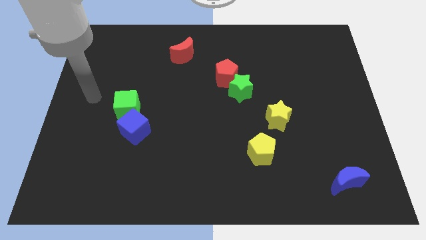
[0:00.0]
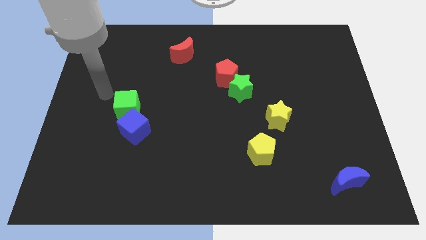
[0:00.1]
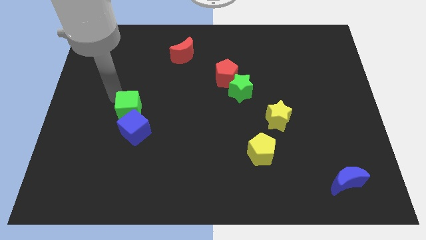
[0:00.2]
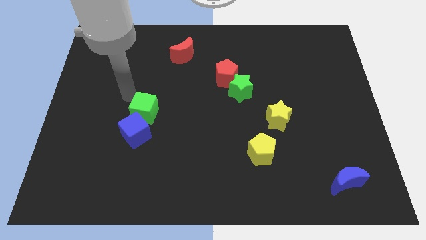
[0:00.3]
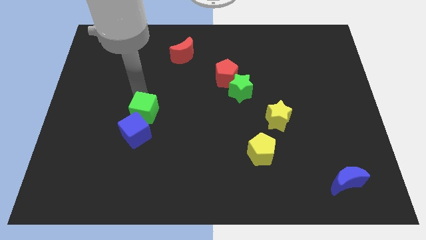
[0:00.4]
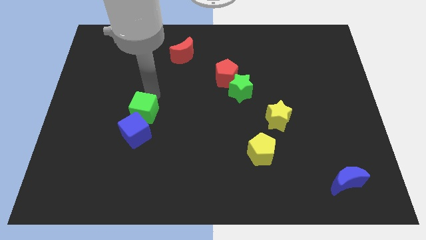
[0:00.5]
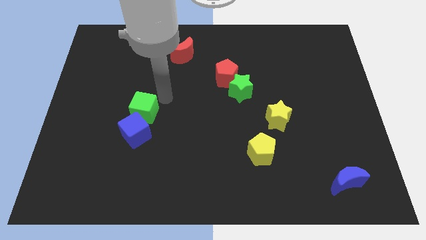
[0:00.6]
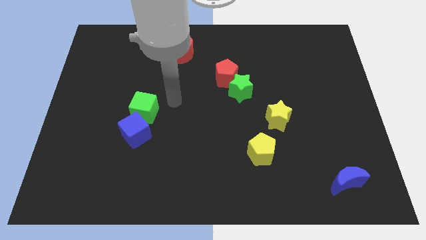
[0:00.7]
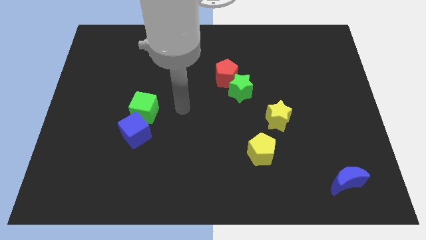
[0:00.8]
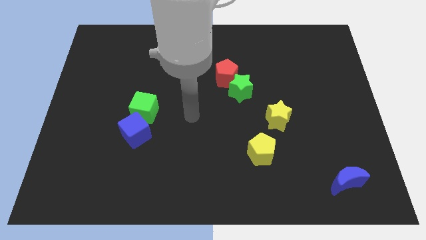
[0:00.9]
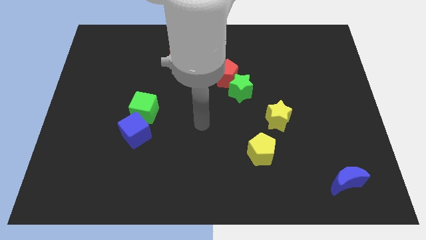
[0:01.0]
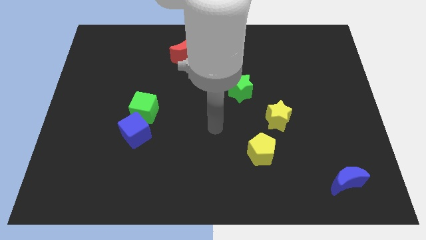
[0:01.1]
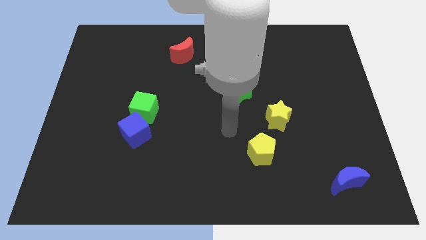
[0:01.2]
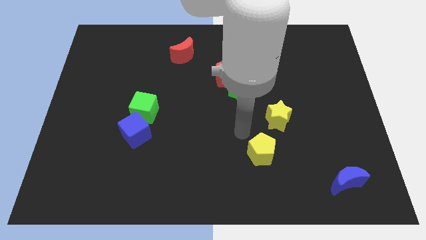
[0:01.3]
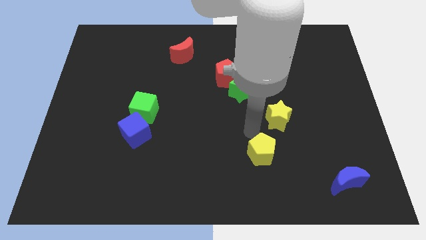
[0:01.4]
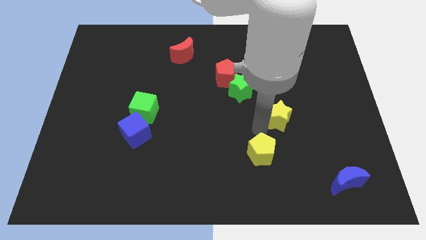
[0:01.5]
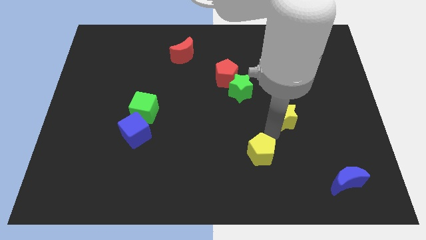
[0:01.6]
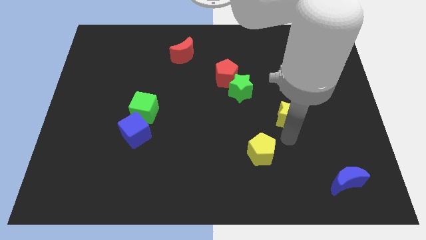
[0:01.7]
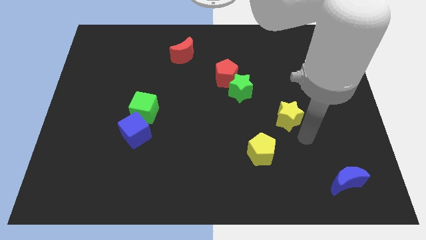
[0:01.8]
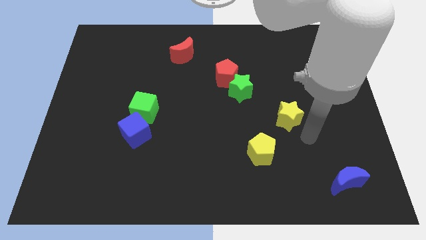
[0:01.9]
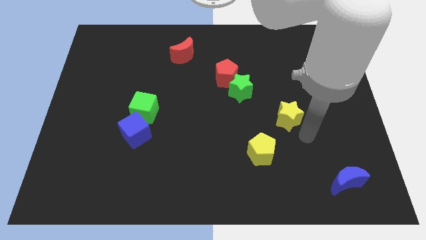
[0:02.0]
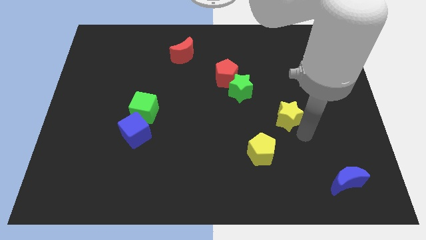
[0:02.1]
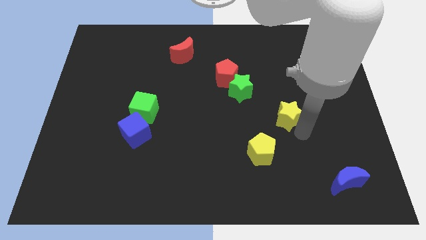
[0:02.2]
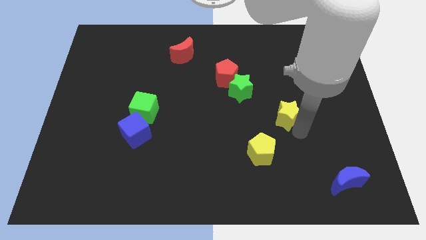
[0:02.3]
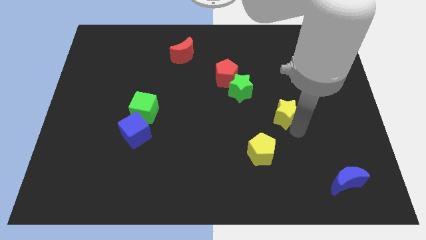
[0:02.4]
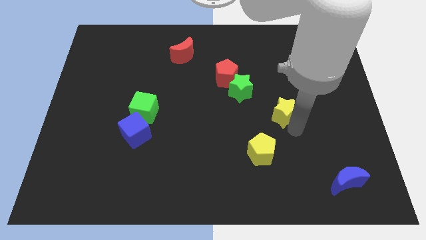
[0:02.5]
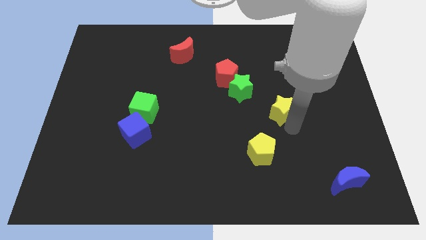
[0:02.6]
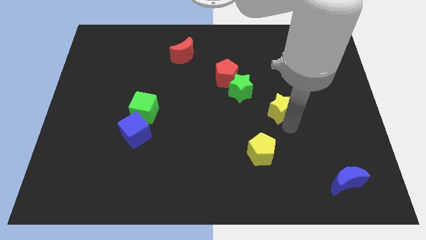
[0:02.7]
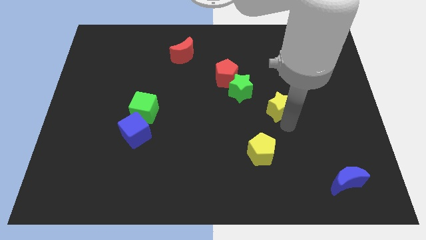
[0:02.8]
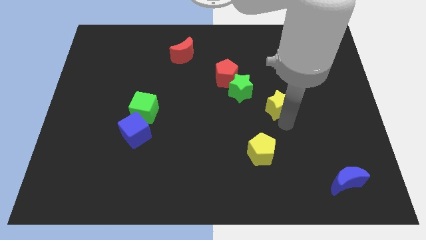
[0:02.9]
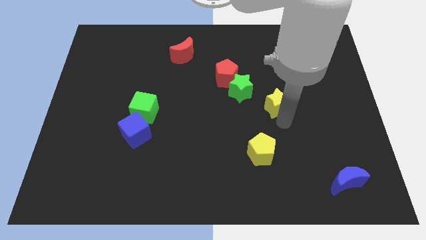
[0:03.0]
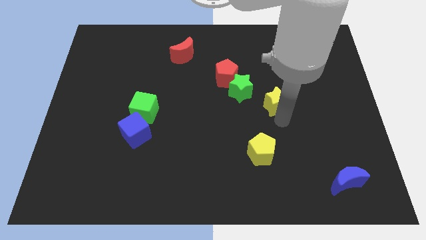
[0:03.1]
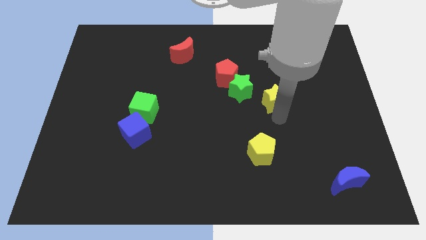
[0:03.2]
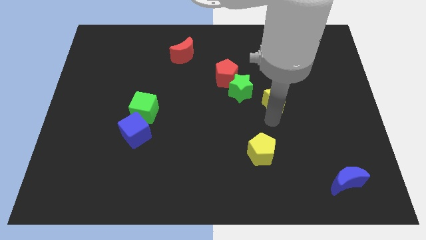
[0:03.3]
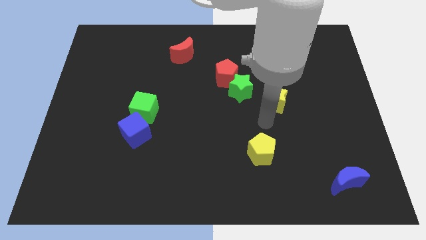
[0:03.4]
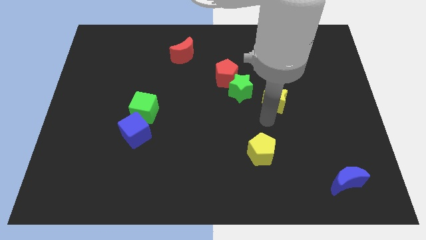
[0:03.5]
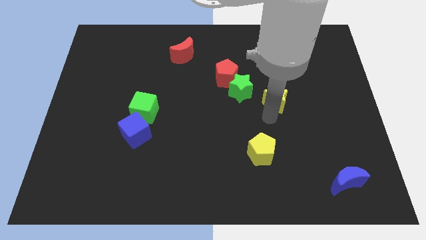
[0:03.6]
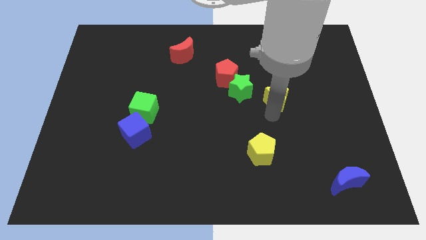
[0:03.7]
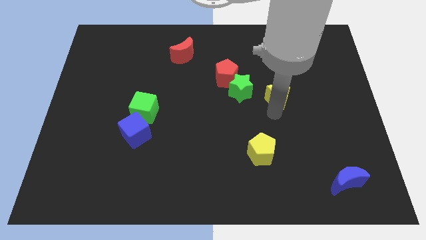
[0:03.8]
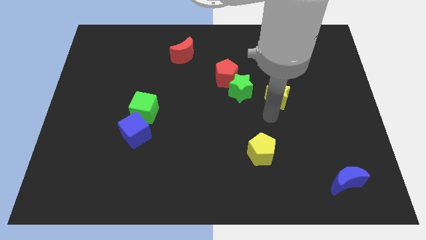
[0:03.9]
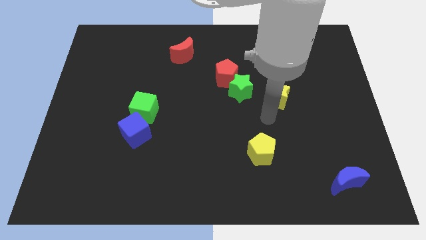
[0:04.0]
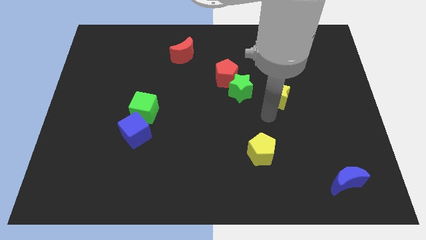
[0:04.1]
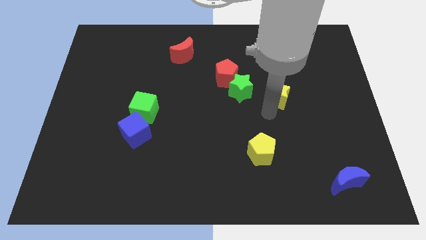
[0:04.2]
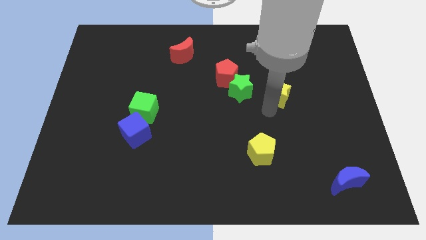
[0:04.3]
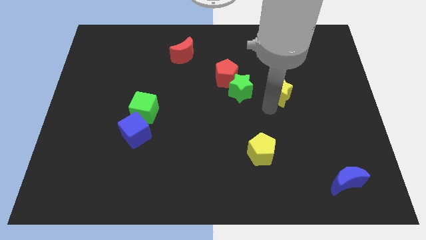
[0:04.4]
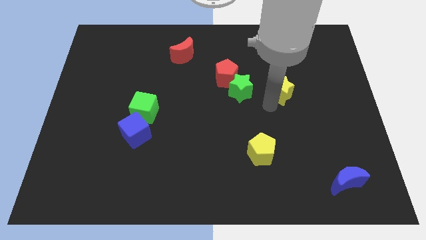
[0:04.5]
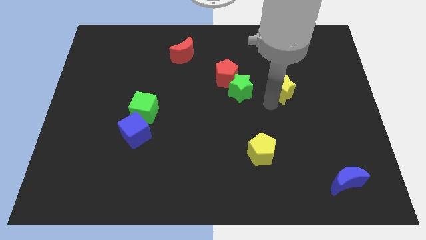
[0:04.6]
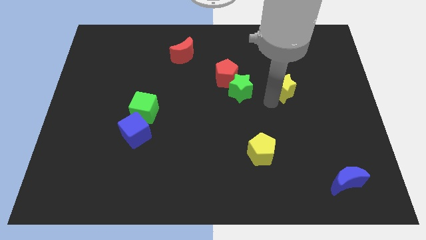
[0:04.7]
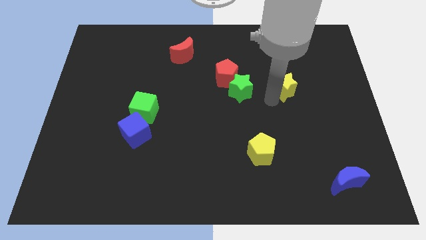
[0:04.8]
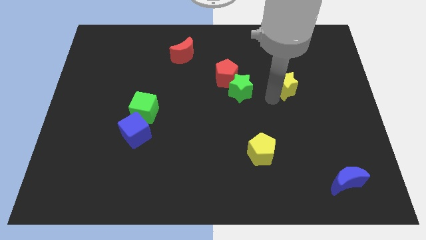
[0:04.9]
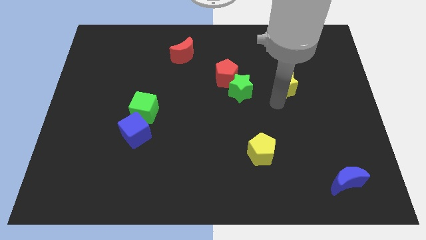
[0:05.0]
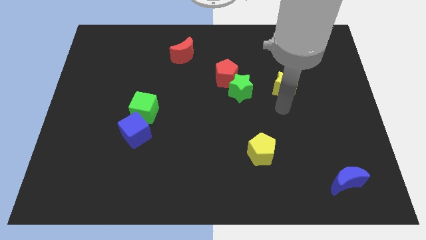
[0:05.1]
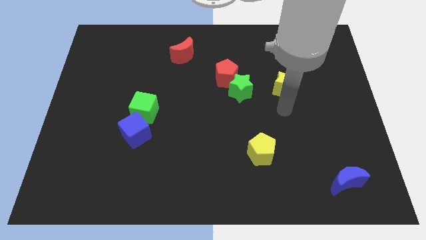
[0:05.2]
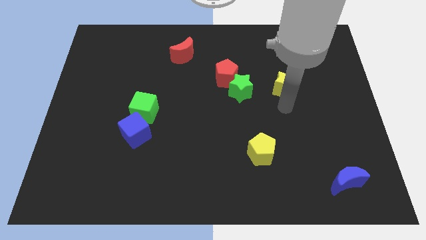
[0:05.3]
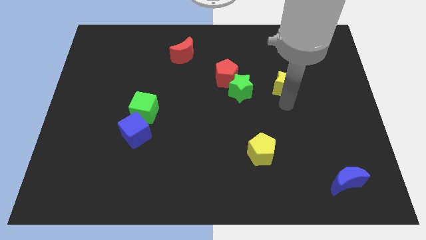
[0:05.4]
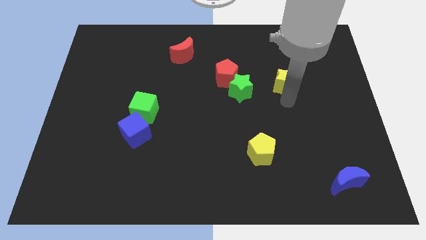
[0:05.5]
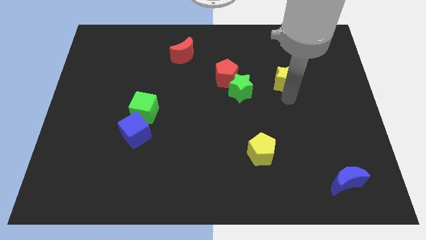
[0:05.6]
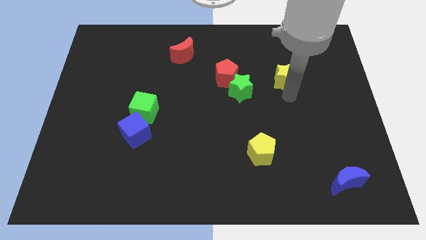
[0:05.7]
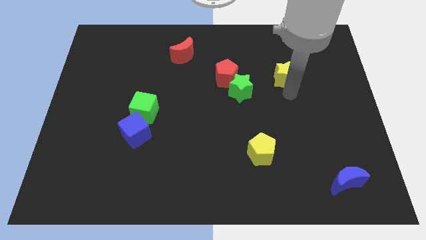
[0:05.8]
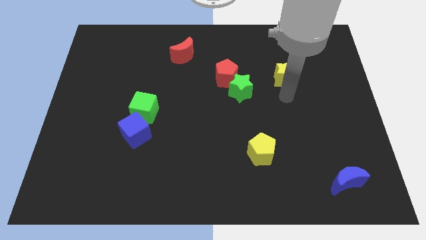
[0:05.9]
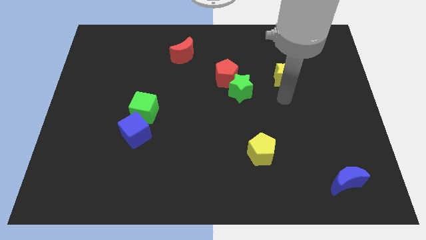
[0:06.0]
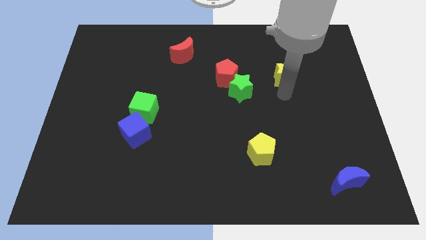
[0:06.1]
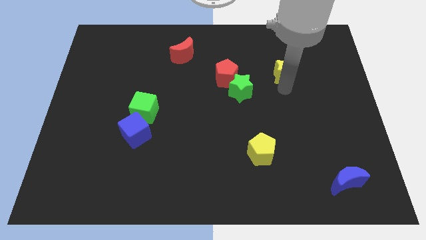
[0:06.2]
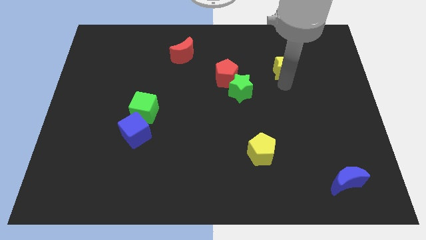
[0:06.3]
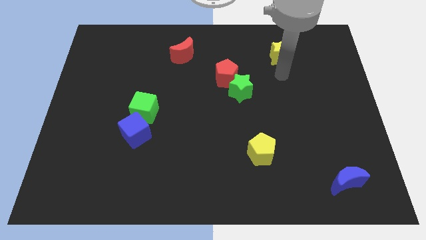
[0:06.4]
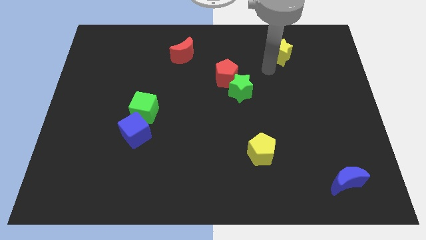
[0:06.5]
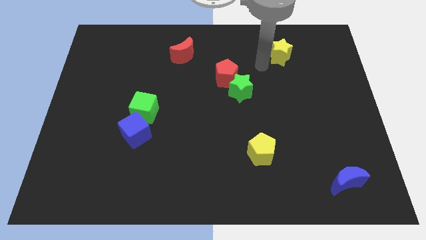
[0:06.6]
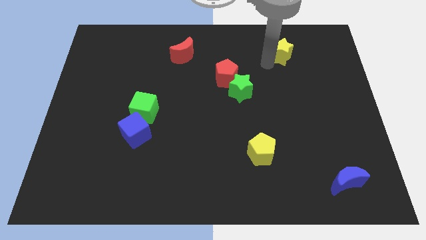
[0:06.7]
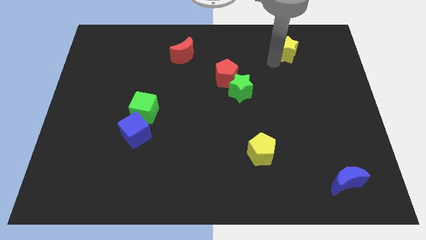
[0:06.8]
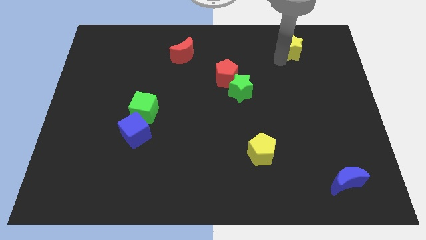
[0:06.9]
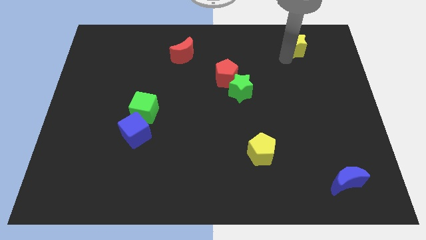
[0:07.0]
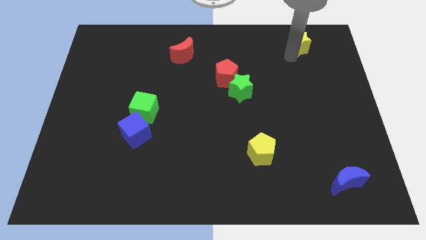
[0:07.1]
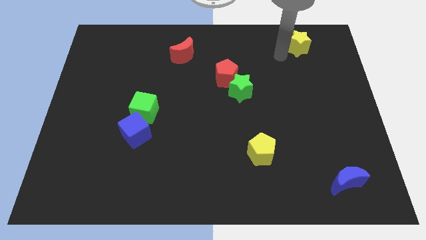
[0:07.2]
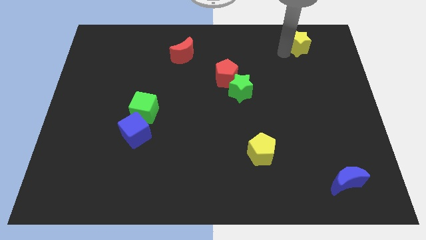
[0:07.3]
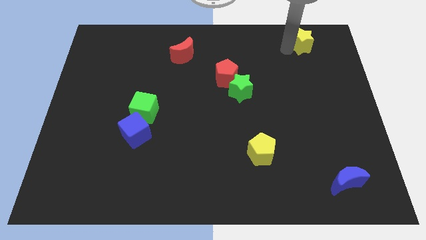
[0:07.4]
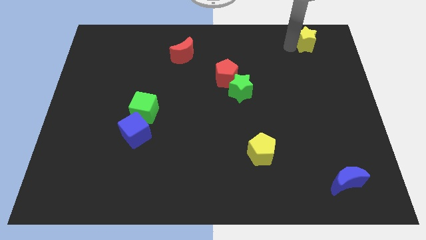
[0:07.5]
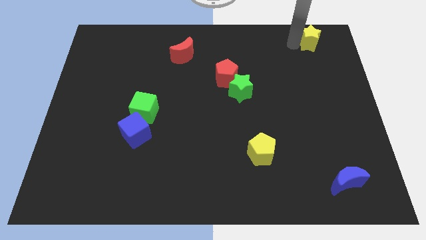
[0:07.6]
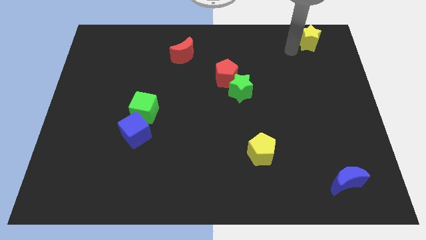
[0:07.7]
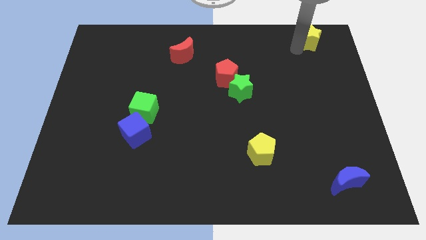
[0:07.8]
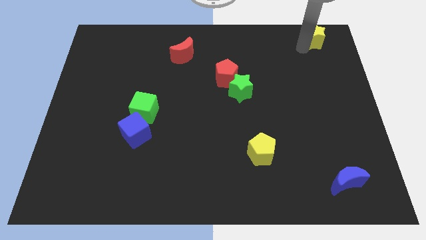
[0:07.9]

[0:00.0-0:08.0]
push the yellow star to the upper right corner
